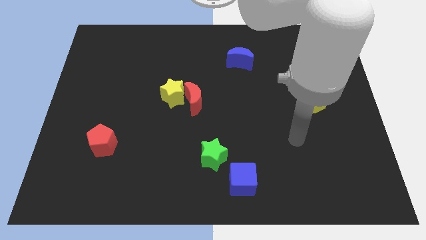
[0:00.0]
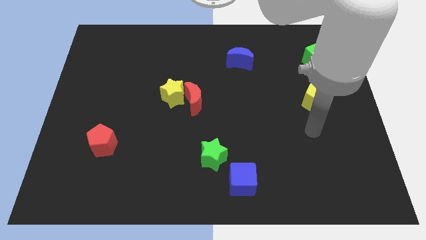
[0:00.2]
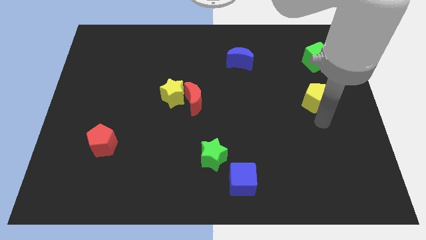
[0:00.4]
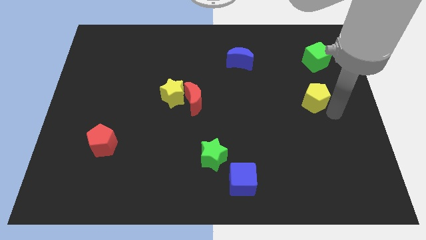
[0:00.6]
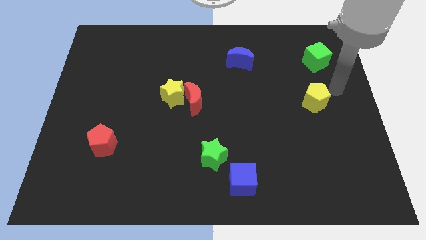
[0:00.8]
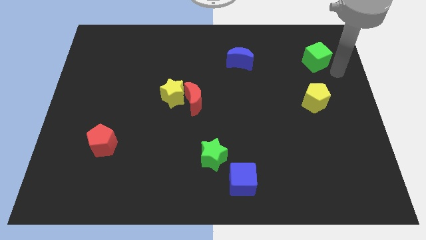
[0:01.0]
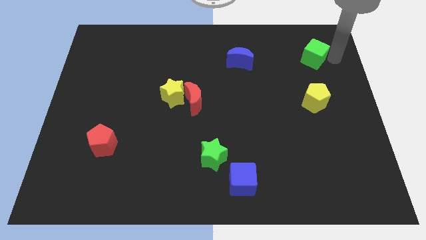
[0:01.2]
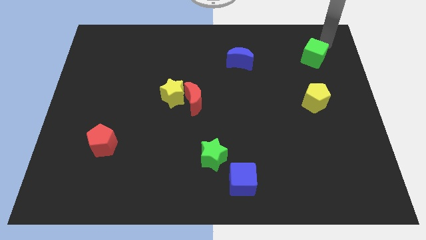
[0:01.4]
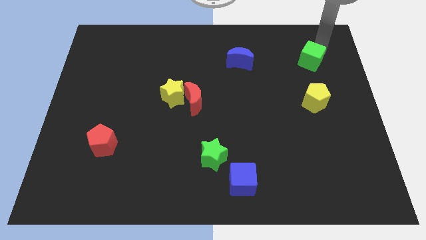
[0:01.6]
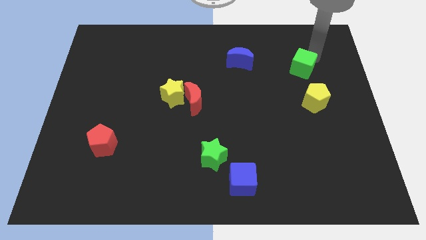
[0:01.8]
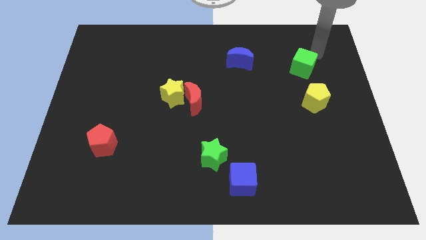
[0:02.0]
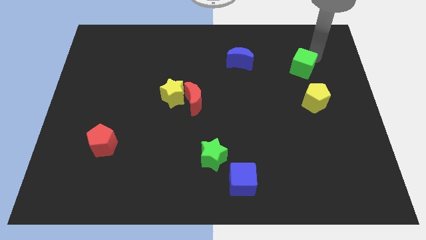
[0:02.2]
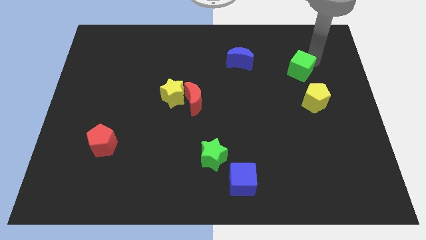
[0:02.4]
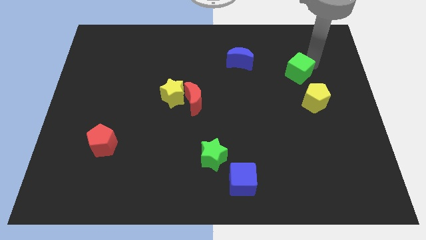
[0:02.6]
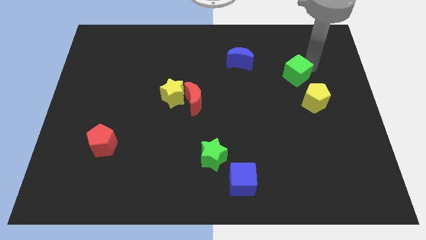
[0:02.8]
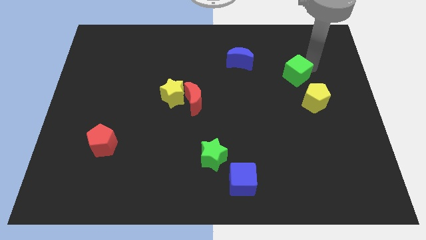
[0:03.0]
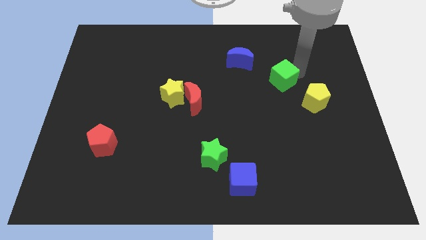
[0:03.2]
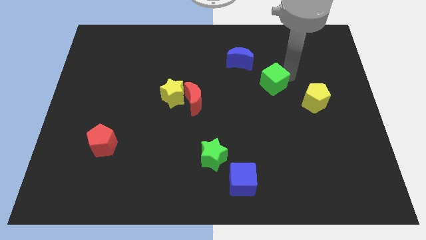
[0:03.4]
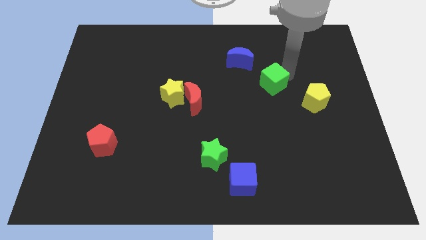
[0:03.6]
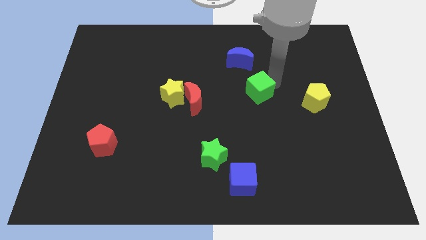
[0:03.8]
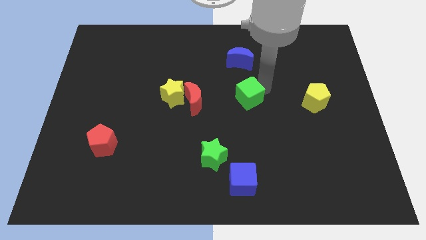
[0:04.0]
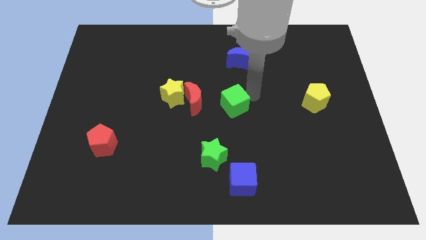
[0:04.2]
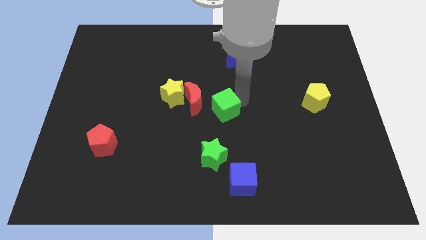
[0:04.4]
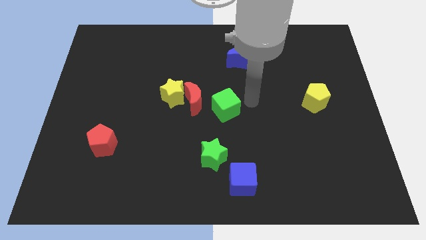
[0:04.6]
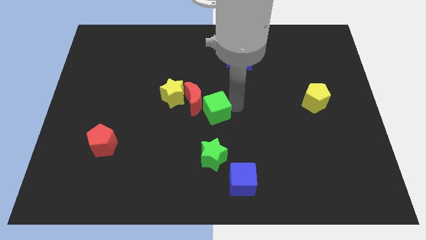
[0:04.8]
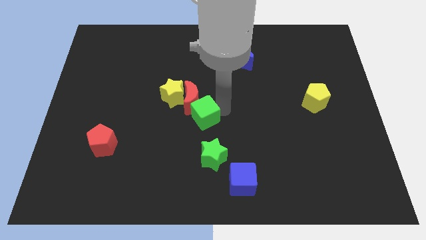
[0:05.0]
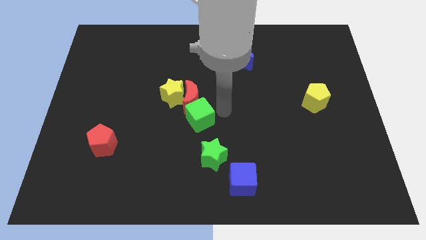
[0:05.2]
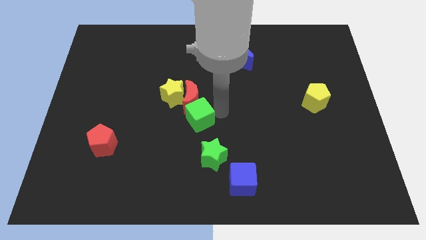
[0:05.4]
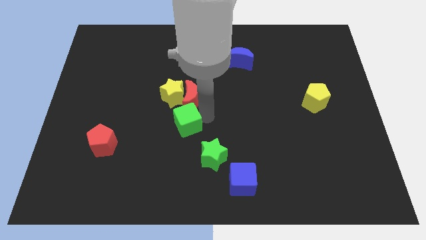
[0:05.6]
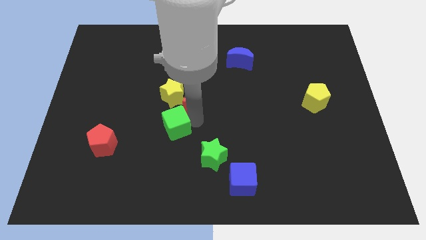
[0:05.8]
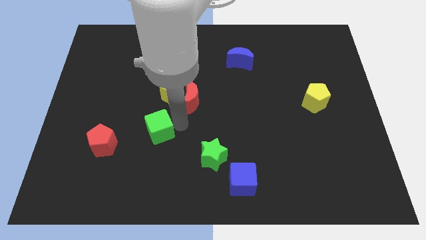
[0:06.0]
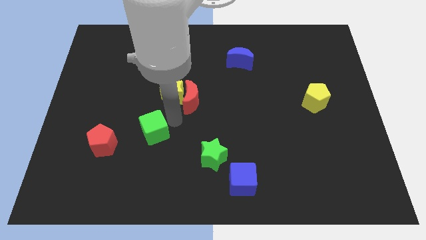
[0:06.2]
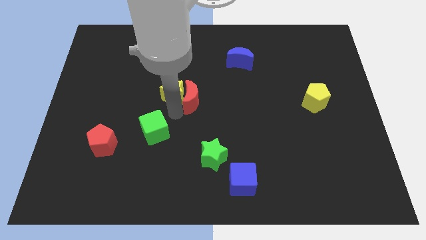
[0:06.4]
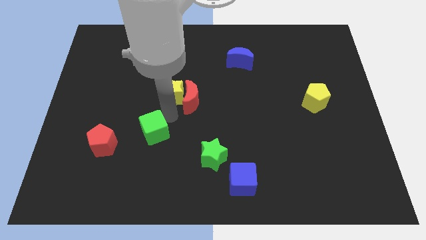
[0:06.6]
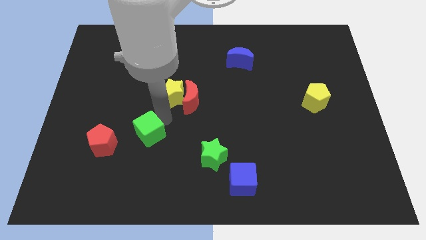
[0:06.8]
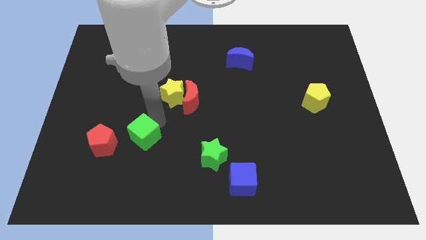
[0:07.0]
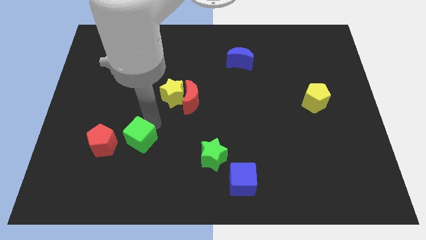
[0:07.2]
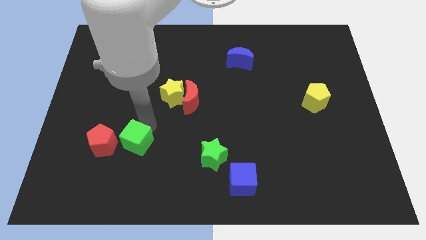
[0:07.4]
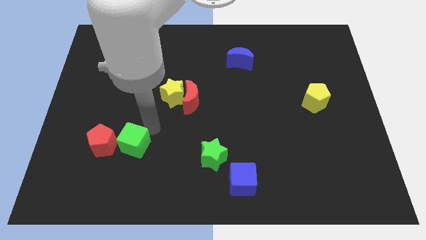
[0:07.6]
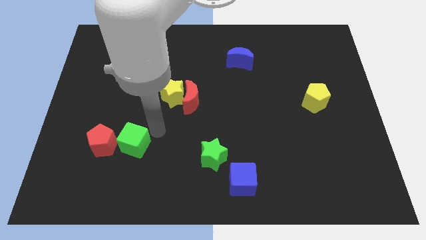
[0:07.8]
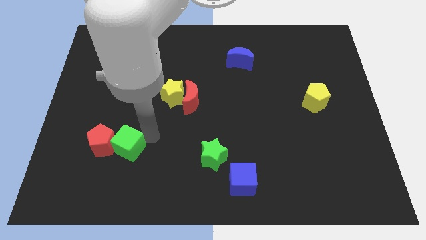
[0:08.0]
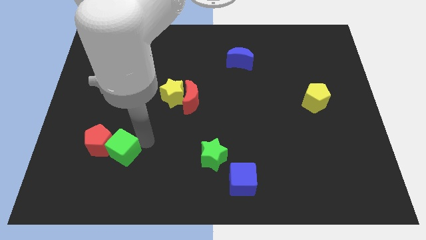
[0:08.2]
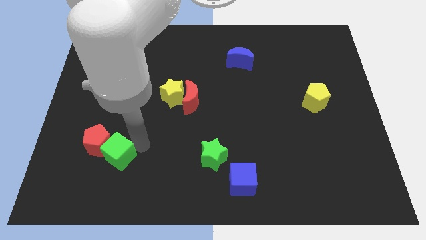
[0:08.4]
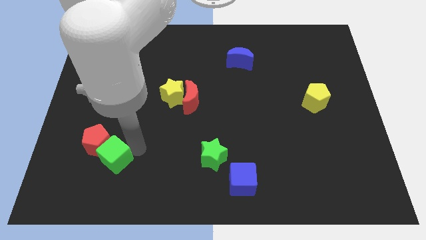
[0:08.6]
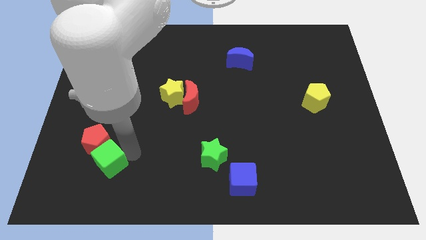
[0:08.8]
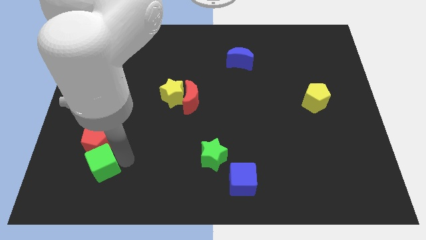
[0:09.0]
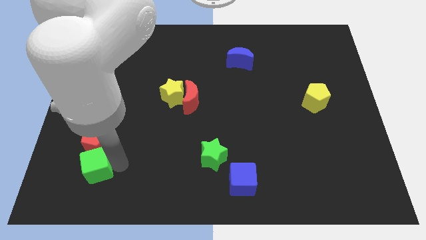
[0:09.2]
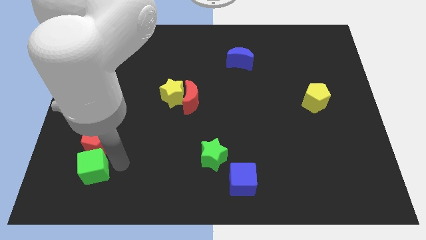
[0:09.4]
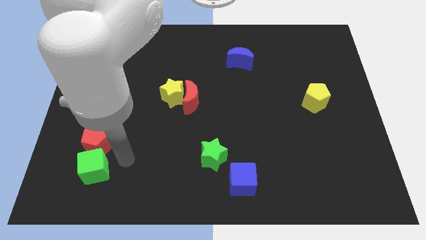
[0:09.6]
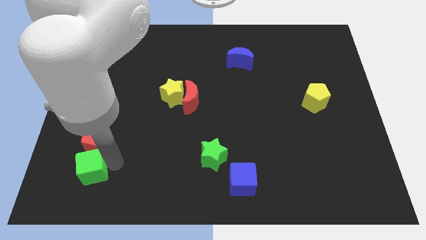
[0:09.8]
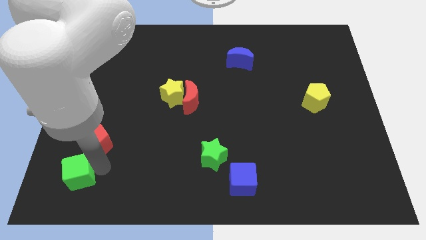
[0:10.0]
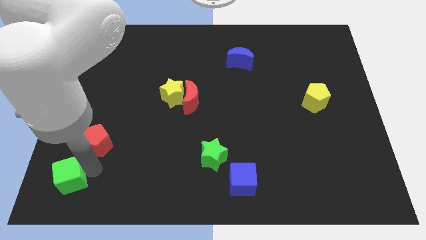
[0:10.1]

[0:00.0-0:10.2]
put the green cube to the bottom left of the board

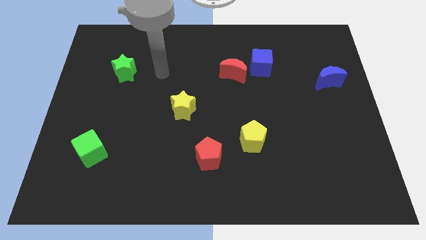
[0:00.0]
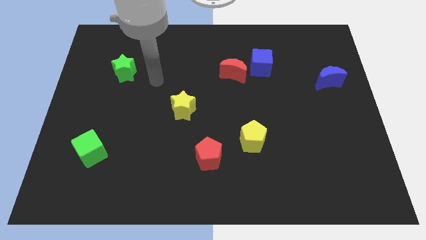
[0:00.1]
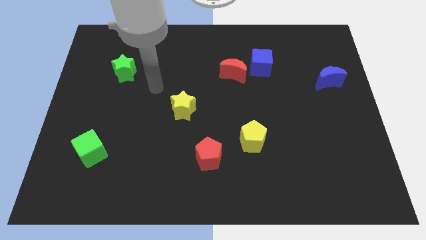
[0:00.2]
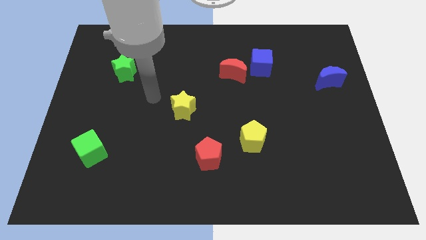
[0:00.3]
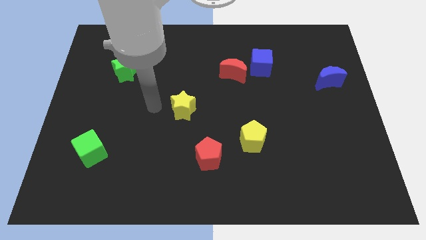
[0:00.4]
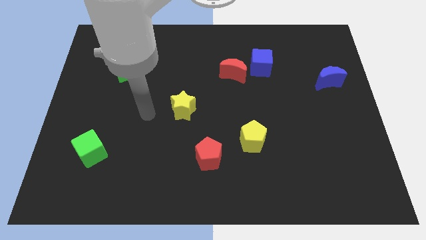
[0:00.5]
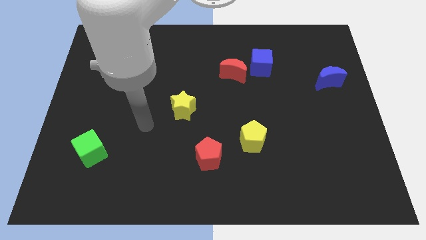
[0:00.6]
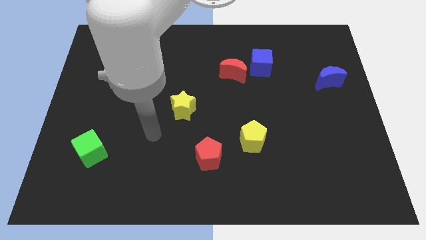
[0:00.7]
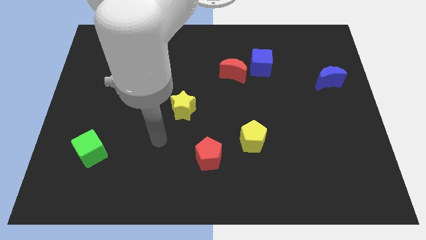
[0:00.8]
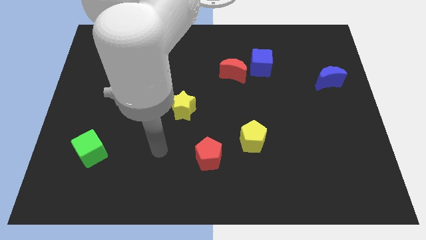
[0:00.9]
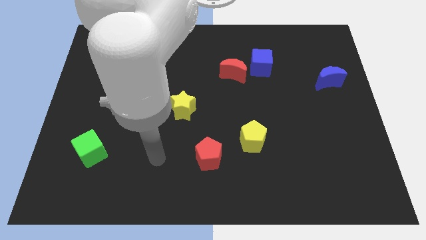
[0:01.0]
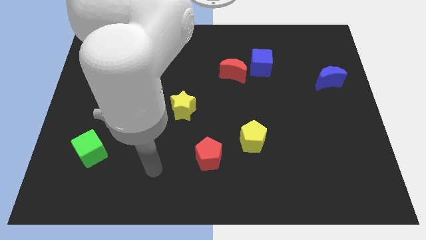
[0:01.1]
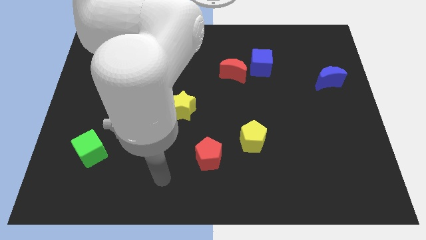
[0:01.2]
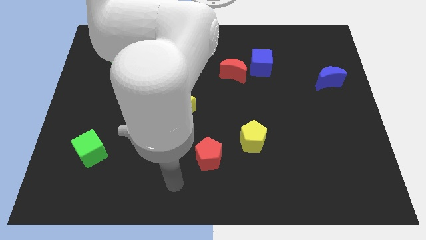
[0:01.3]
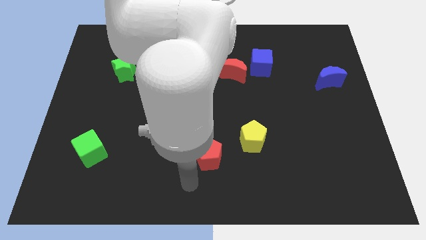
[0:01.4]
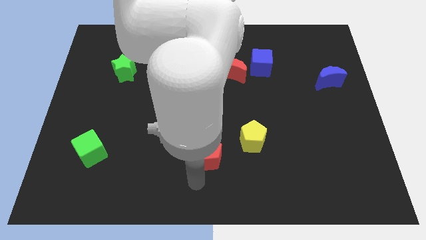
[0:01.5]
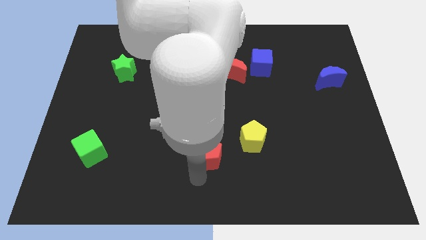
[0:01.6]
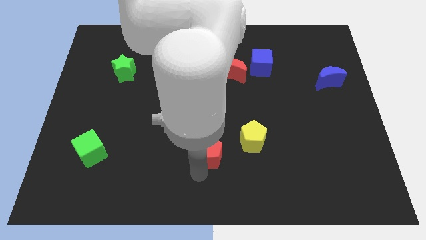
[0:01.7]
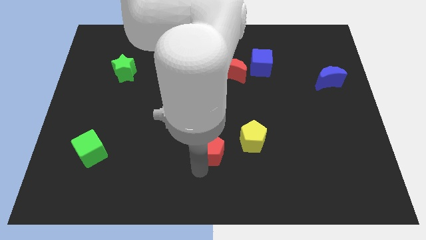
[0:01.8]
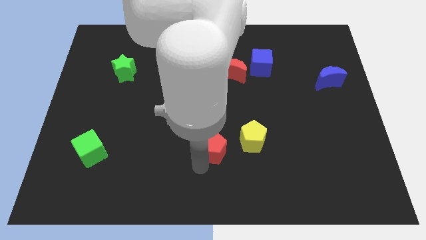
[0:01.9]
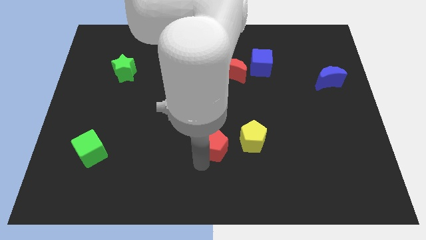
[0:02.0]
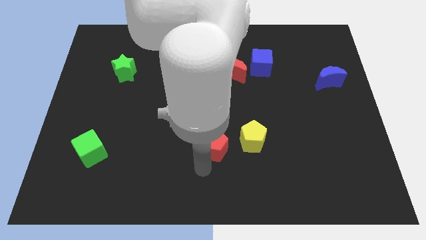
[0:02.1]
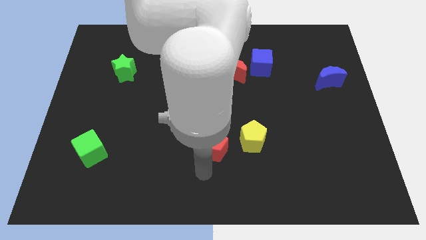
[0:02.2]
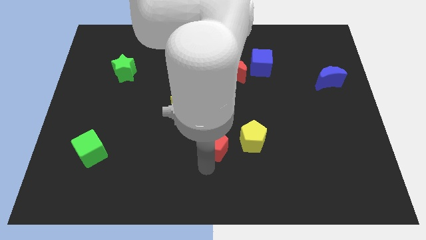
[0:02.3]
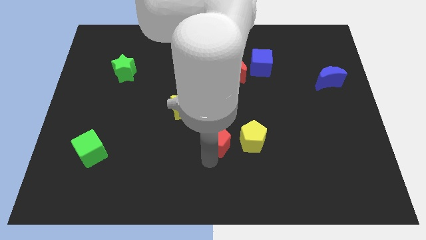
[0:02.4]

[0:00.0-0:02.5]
slide the red pentagon to the middle of the board
